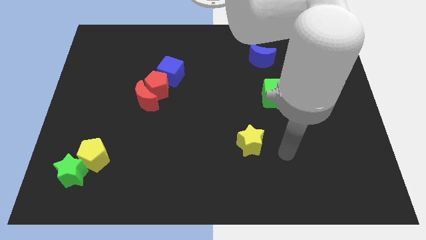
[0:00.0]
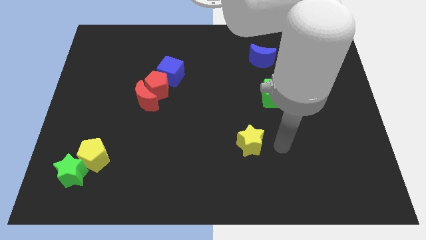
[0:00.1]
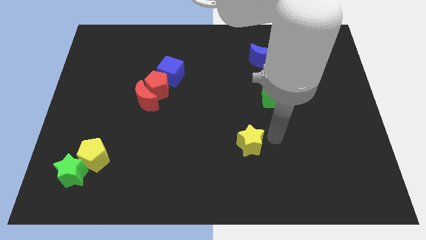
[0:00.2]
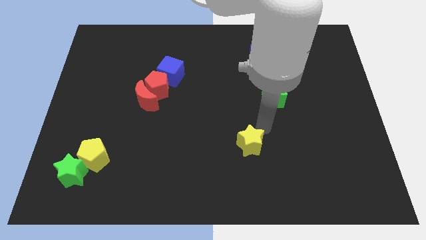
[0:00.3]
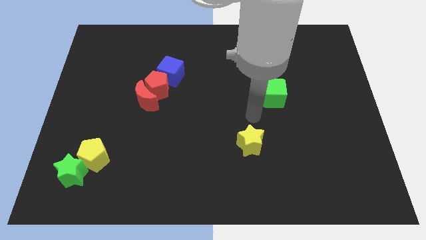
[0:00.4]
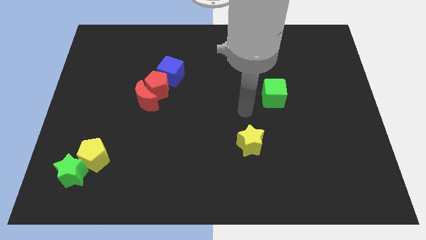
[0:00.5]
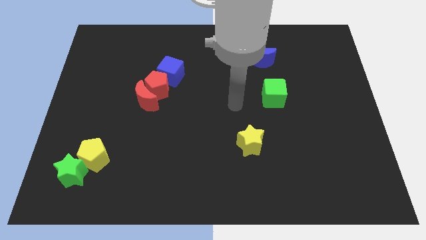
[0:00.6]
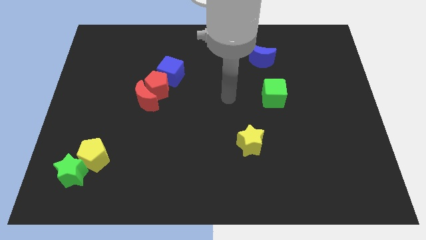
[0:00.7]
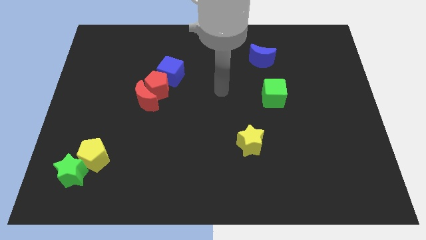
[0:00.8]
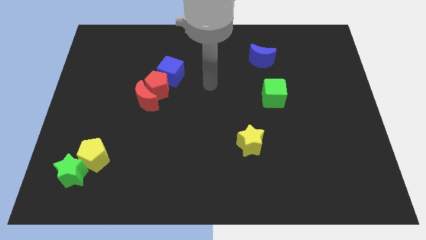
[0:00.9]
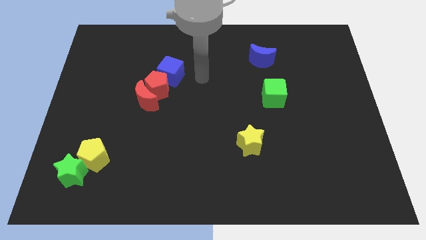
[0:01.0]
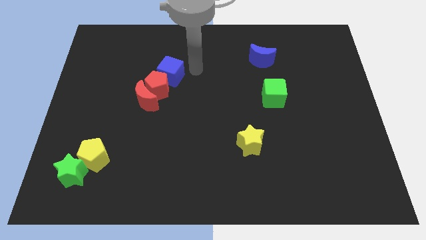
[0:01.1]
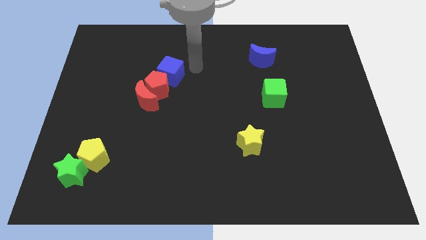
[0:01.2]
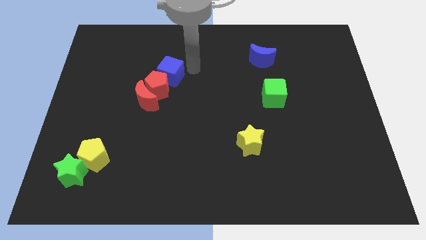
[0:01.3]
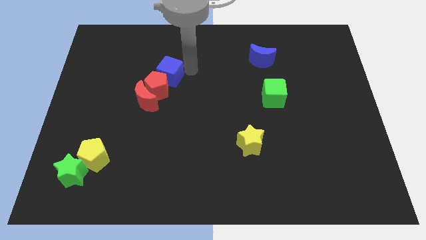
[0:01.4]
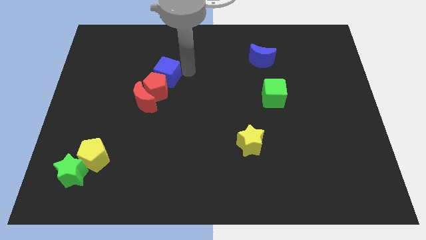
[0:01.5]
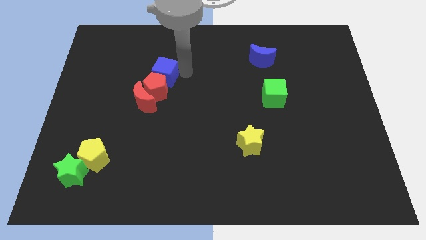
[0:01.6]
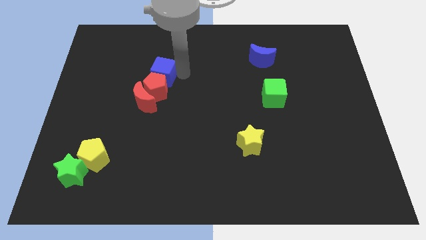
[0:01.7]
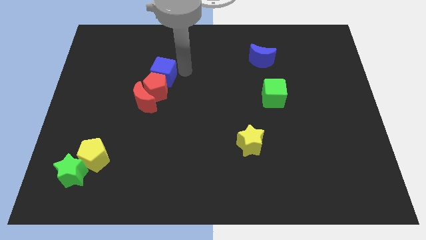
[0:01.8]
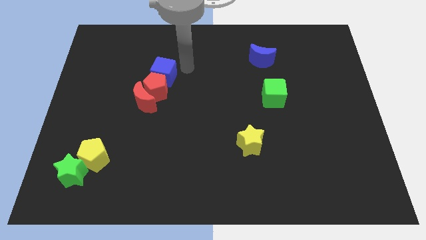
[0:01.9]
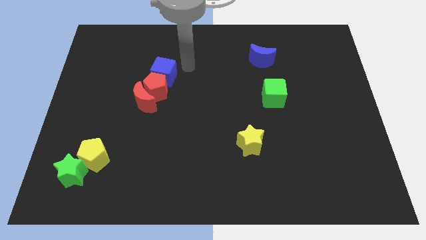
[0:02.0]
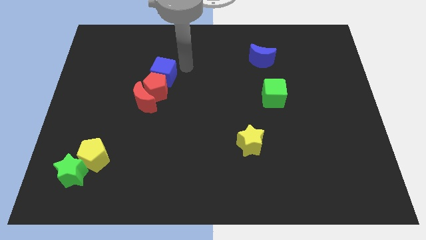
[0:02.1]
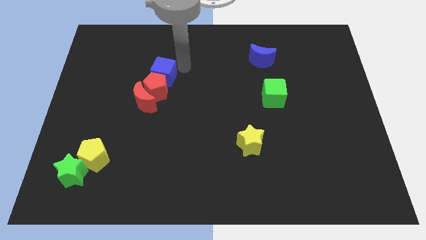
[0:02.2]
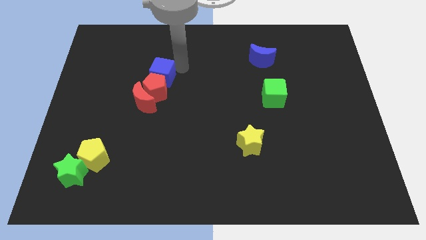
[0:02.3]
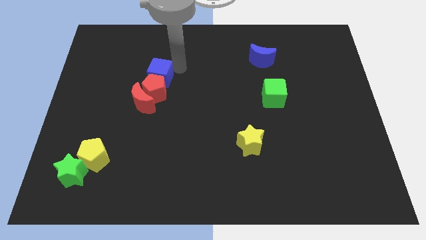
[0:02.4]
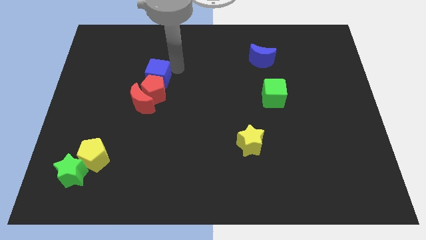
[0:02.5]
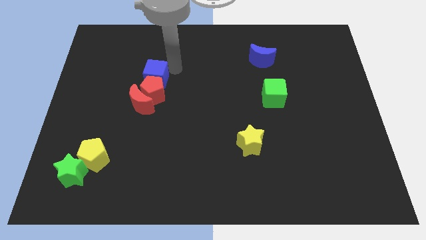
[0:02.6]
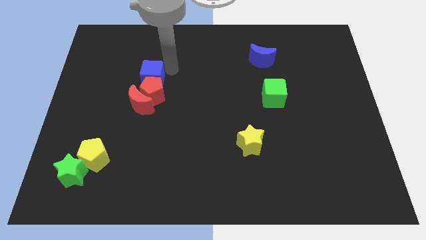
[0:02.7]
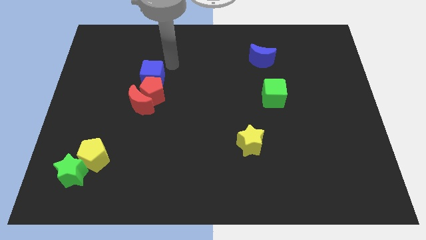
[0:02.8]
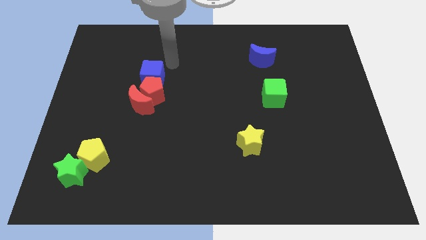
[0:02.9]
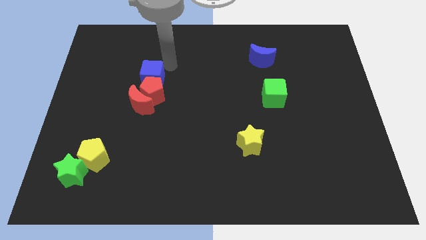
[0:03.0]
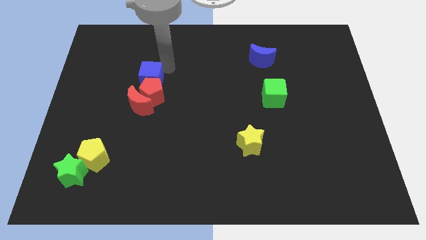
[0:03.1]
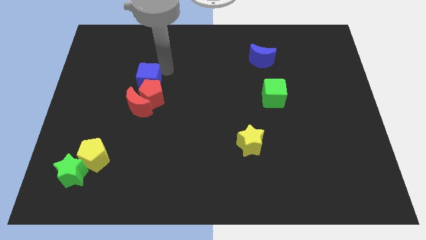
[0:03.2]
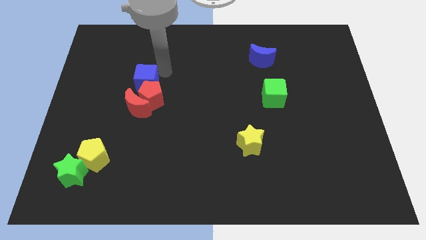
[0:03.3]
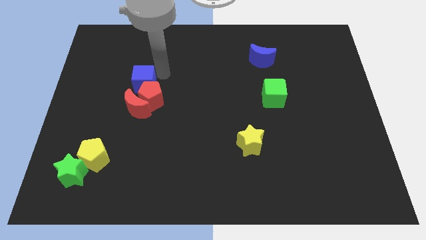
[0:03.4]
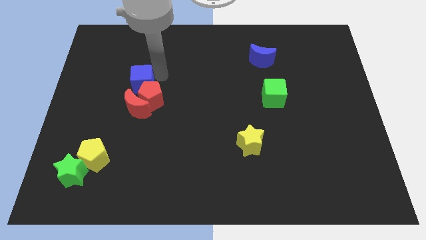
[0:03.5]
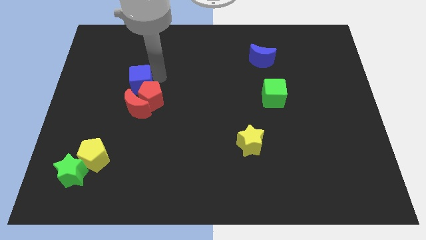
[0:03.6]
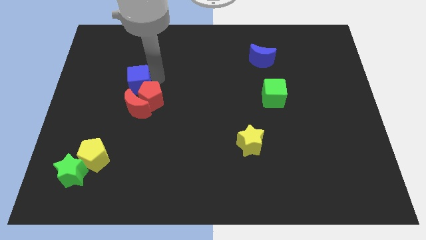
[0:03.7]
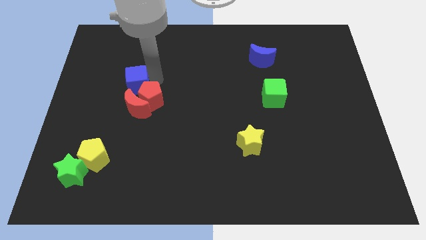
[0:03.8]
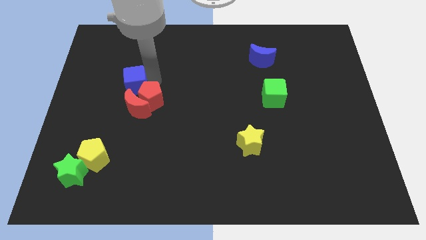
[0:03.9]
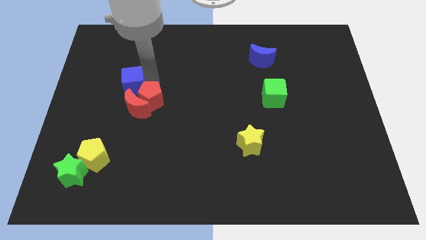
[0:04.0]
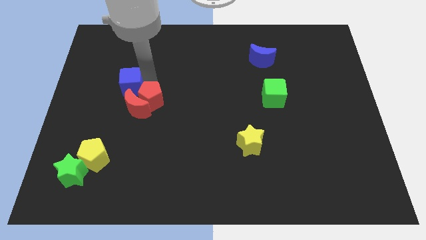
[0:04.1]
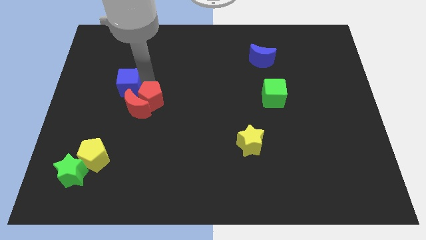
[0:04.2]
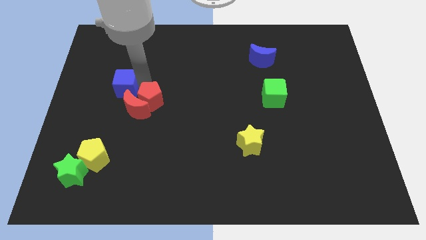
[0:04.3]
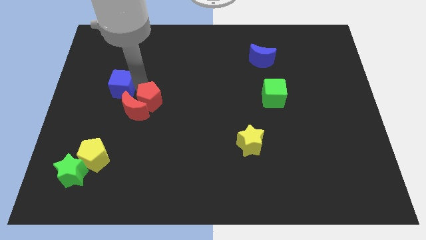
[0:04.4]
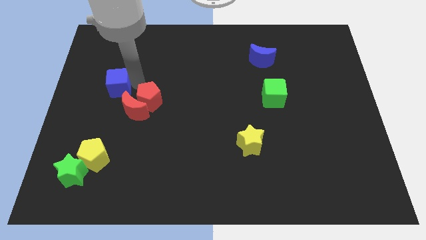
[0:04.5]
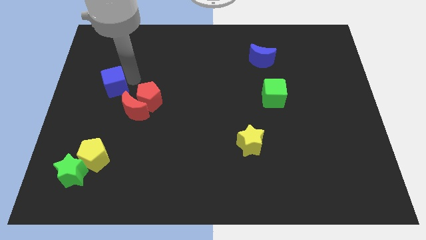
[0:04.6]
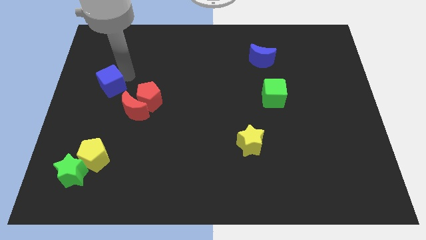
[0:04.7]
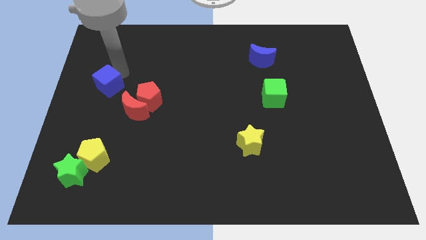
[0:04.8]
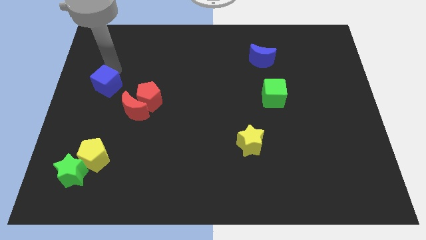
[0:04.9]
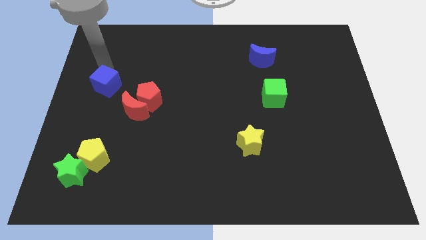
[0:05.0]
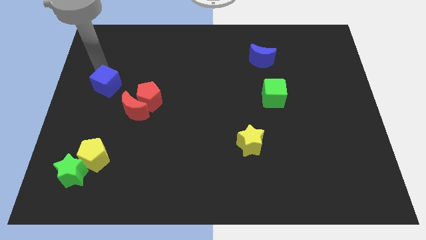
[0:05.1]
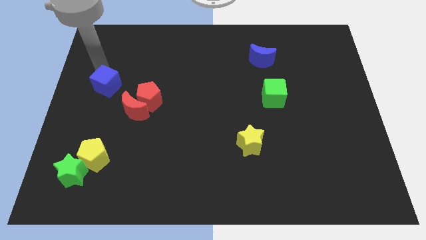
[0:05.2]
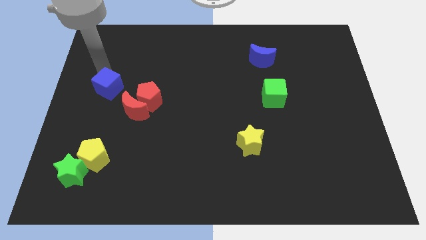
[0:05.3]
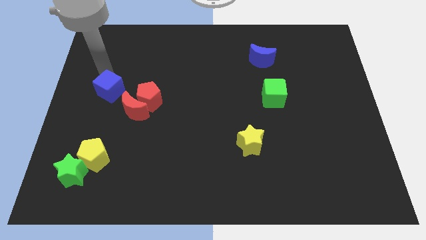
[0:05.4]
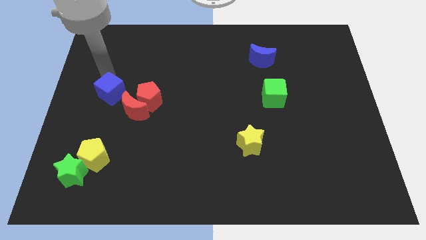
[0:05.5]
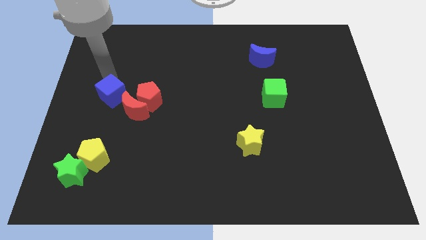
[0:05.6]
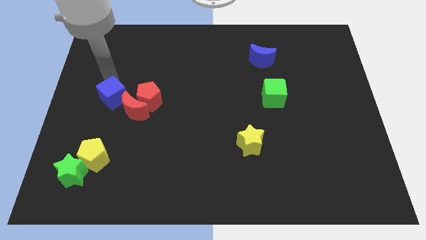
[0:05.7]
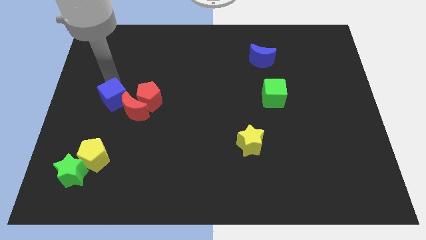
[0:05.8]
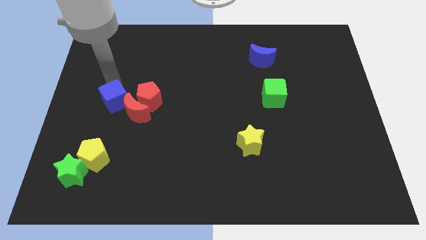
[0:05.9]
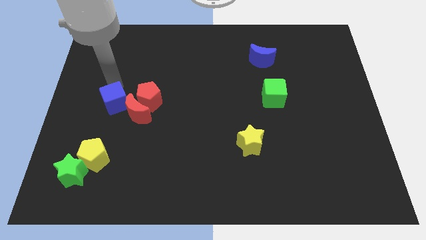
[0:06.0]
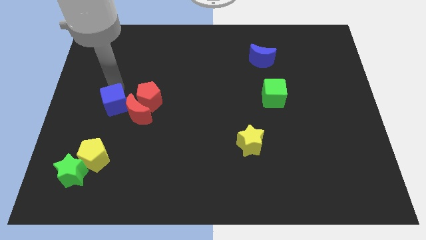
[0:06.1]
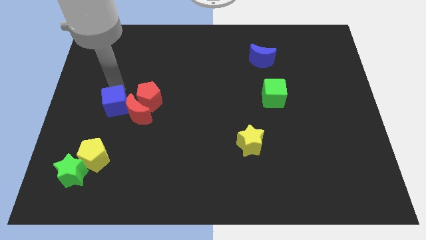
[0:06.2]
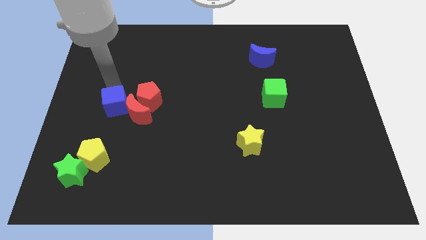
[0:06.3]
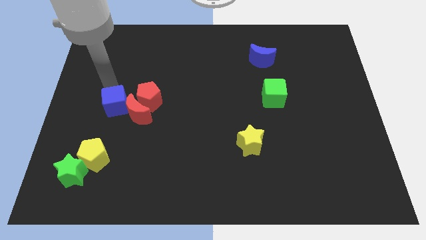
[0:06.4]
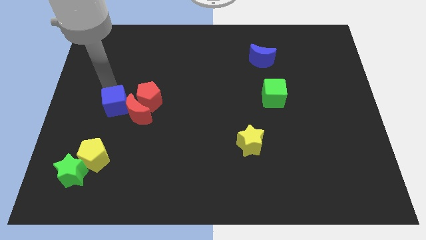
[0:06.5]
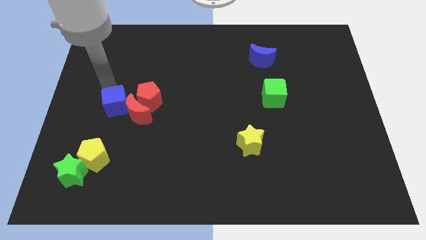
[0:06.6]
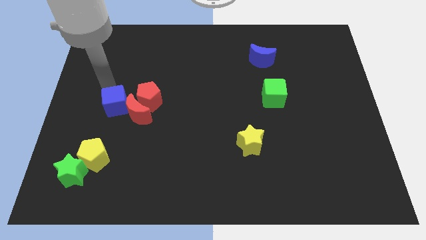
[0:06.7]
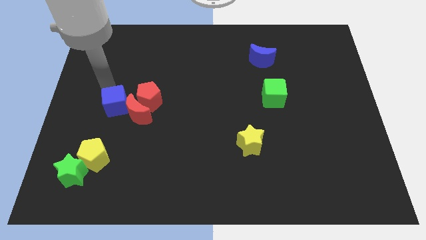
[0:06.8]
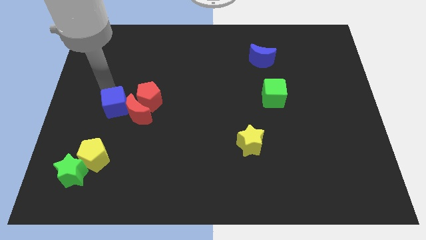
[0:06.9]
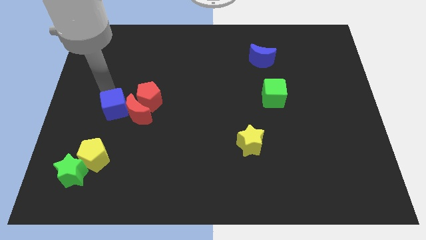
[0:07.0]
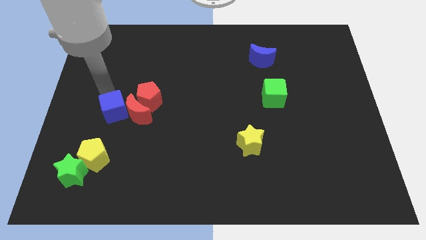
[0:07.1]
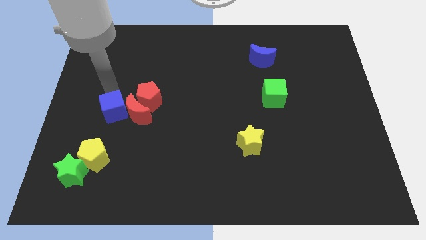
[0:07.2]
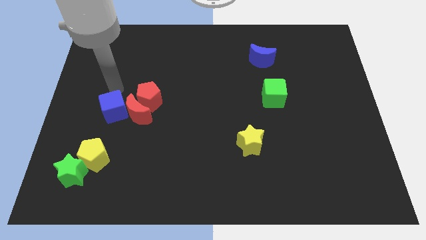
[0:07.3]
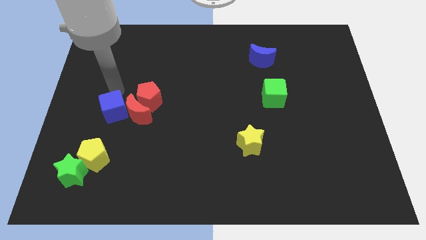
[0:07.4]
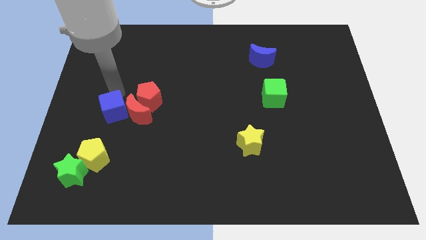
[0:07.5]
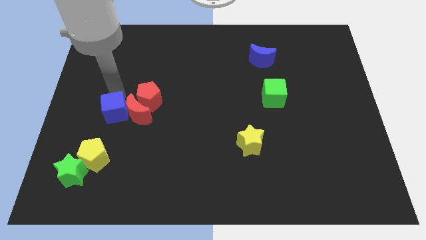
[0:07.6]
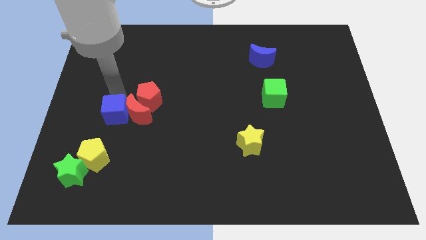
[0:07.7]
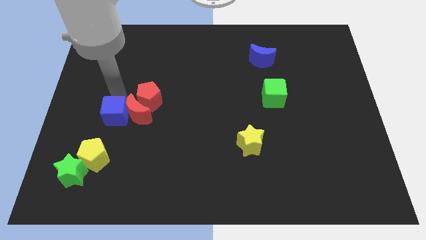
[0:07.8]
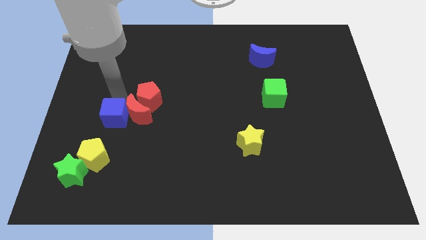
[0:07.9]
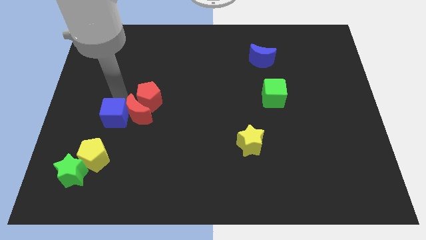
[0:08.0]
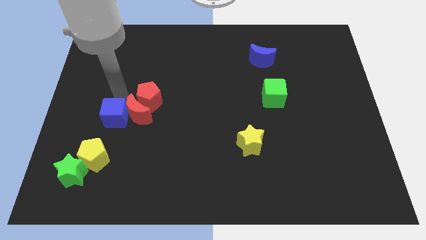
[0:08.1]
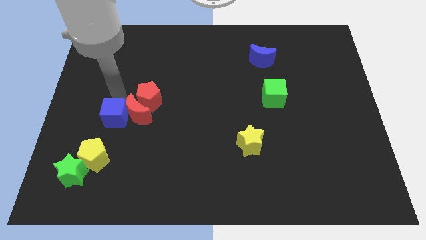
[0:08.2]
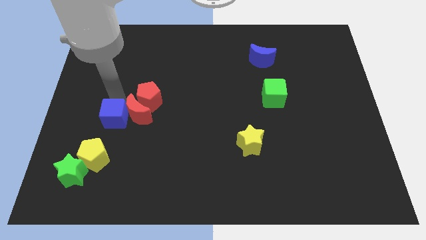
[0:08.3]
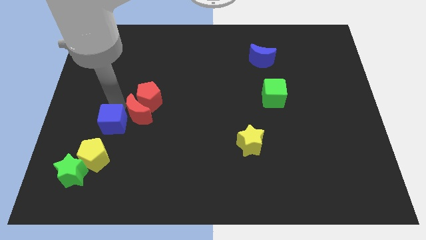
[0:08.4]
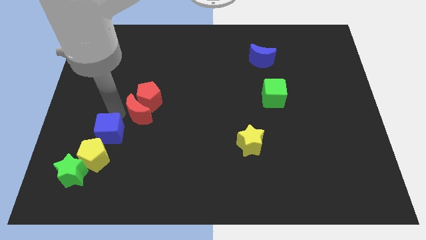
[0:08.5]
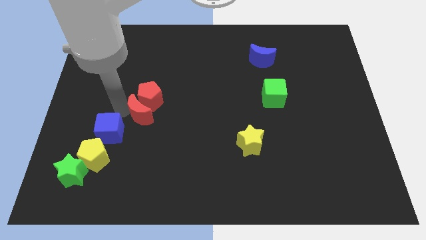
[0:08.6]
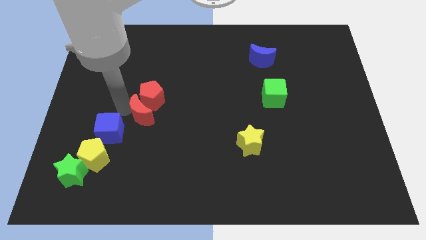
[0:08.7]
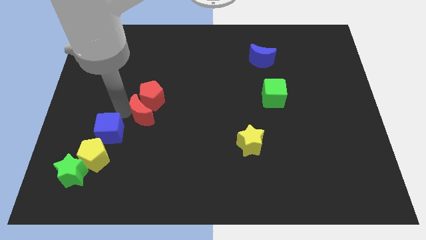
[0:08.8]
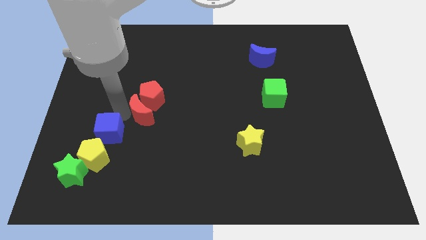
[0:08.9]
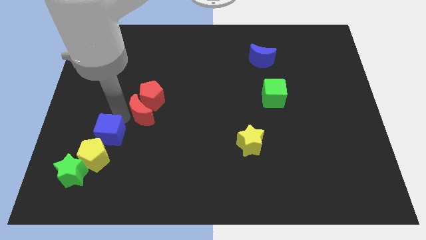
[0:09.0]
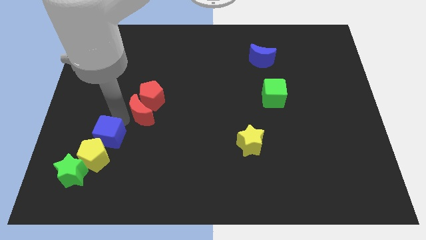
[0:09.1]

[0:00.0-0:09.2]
slide the blue cube to the yellow pentagon
